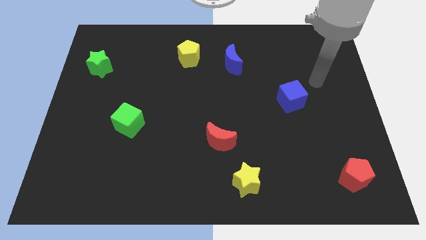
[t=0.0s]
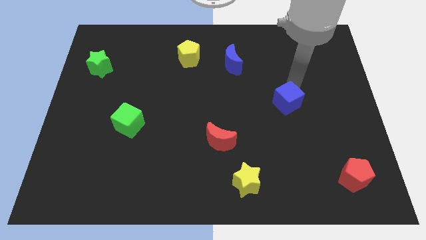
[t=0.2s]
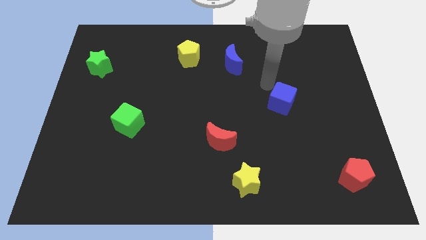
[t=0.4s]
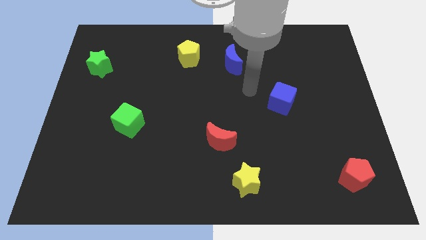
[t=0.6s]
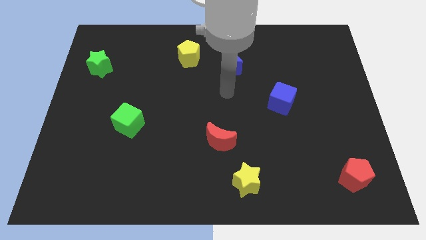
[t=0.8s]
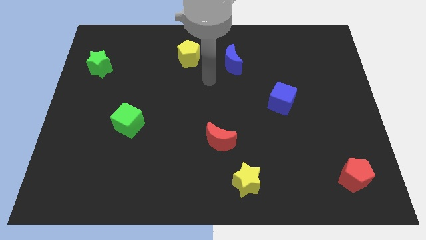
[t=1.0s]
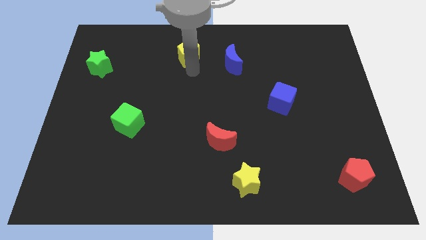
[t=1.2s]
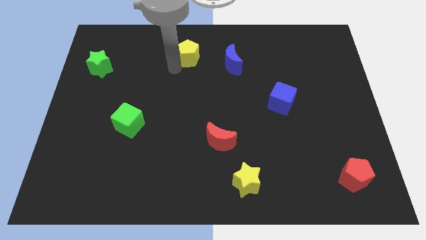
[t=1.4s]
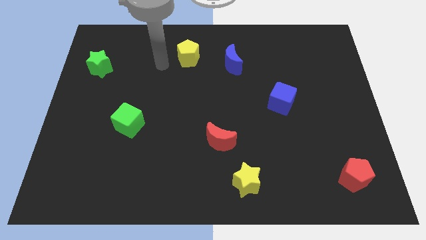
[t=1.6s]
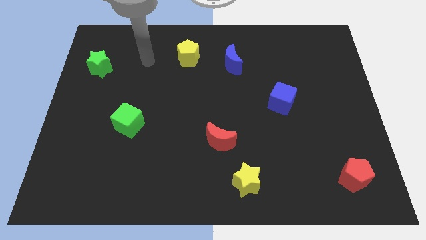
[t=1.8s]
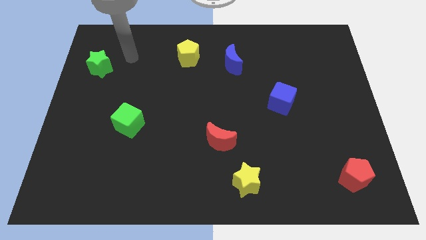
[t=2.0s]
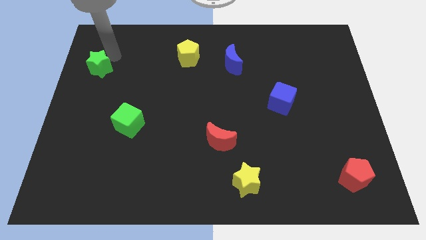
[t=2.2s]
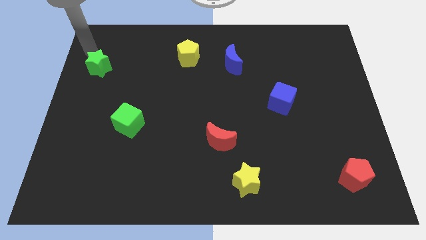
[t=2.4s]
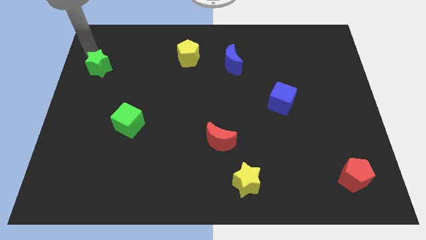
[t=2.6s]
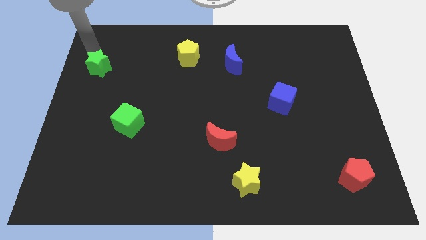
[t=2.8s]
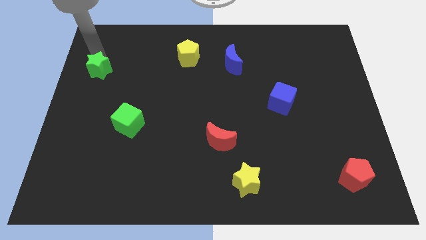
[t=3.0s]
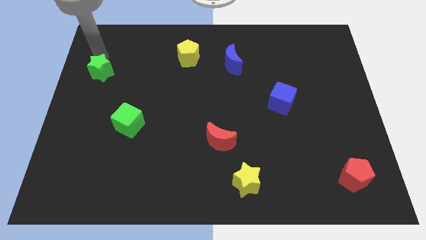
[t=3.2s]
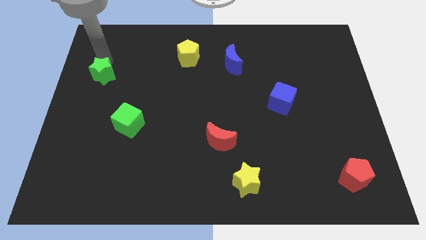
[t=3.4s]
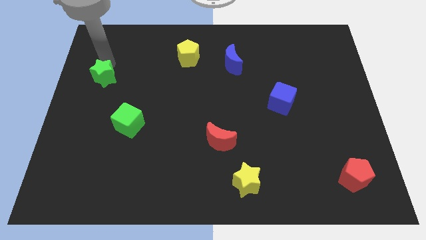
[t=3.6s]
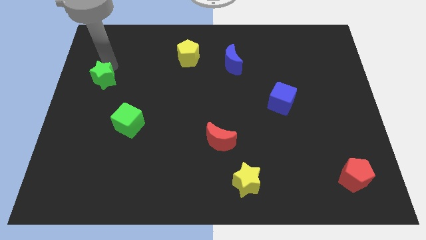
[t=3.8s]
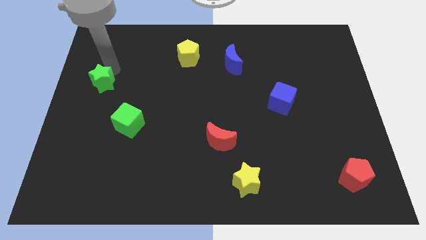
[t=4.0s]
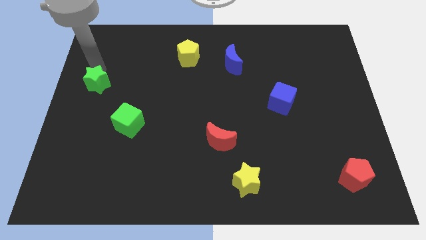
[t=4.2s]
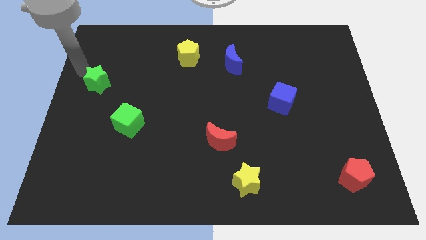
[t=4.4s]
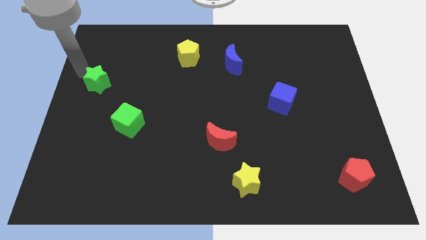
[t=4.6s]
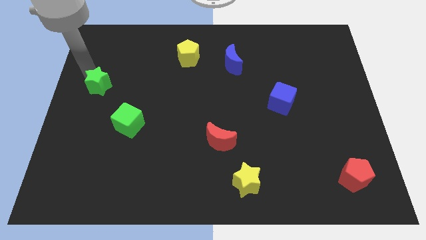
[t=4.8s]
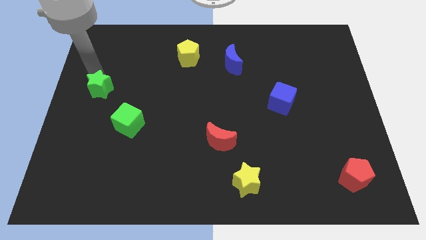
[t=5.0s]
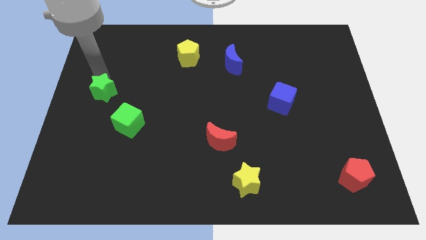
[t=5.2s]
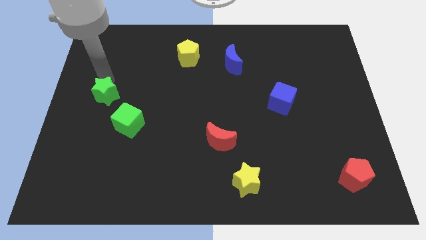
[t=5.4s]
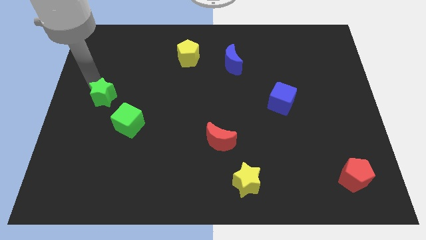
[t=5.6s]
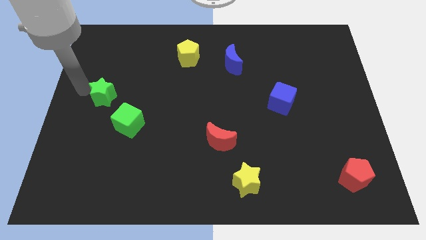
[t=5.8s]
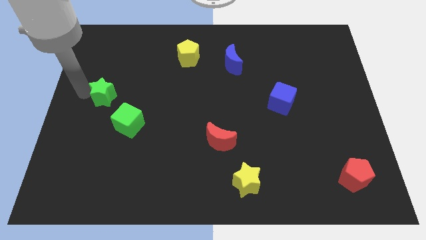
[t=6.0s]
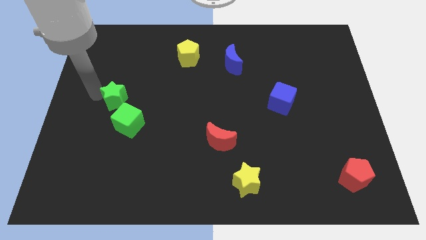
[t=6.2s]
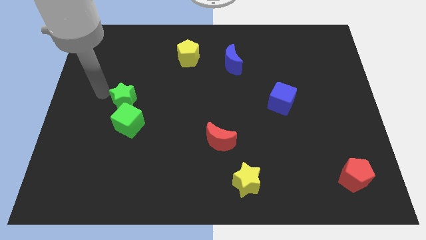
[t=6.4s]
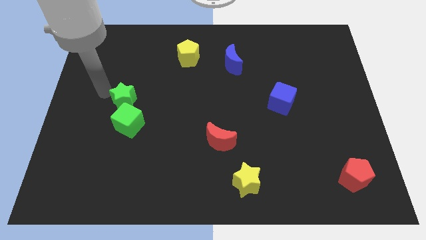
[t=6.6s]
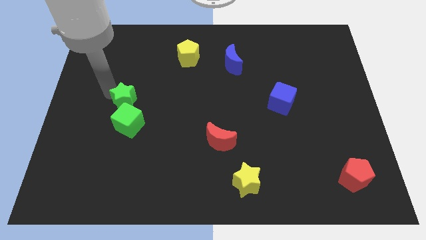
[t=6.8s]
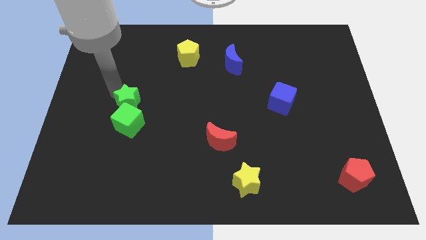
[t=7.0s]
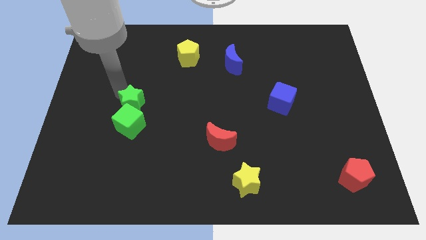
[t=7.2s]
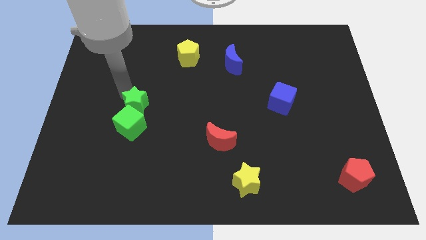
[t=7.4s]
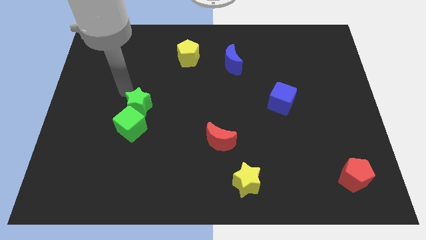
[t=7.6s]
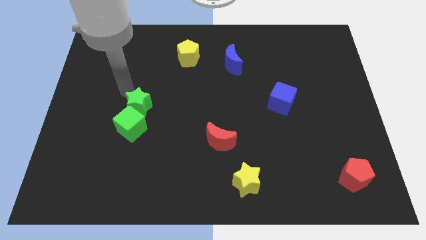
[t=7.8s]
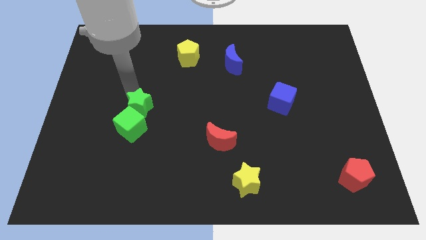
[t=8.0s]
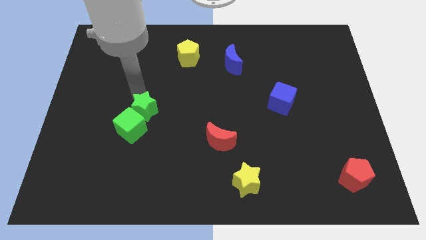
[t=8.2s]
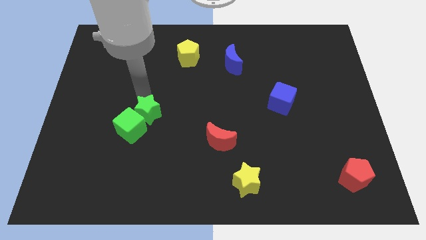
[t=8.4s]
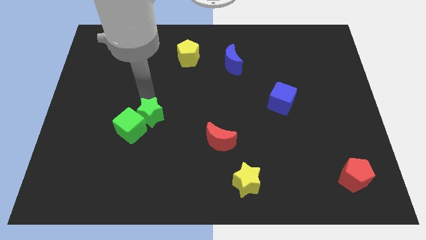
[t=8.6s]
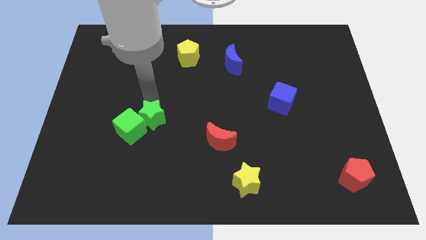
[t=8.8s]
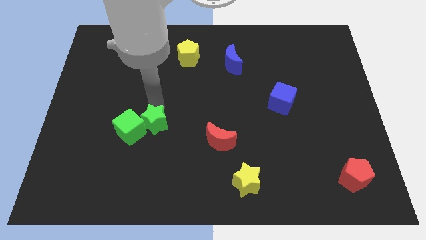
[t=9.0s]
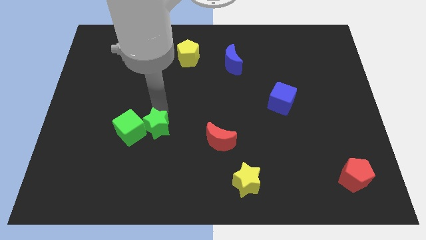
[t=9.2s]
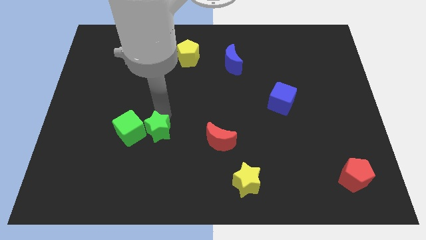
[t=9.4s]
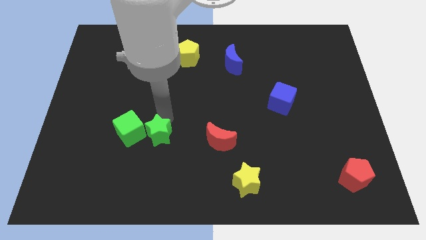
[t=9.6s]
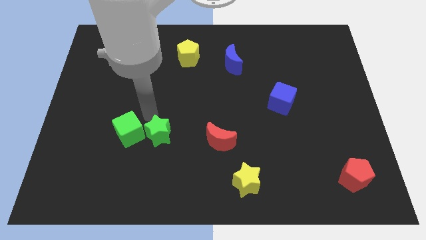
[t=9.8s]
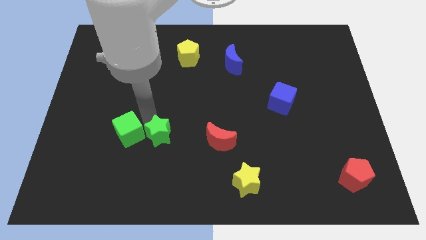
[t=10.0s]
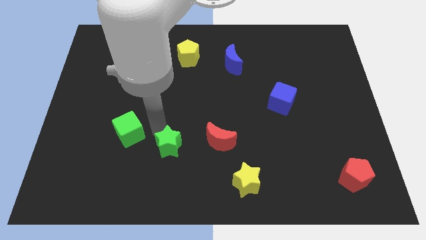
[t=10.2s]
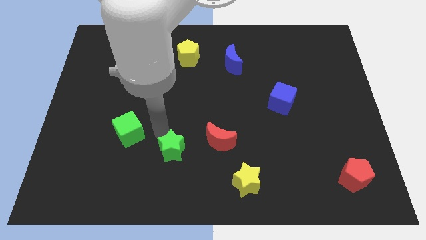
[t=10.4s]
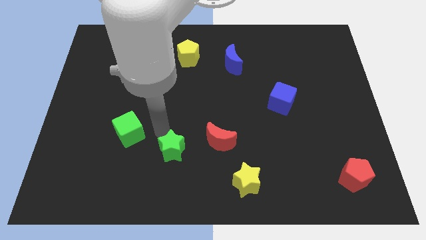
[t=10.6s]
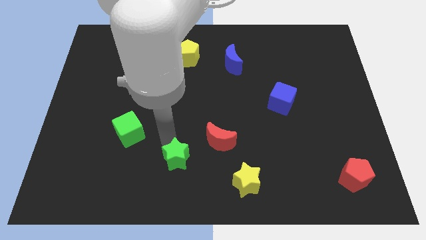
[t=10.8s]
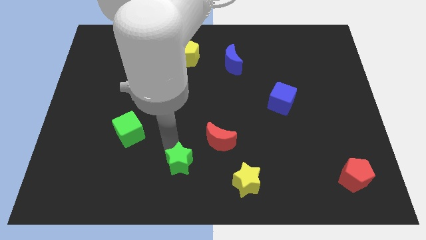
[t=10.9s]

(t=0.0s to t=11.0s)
move the green star to the bottom

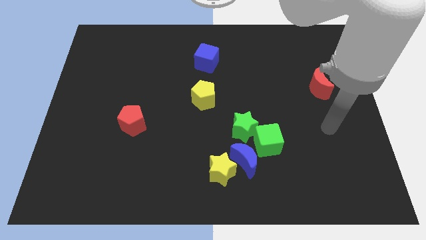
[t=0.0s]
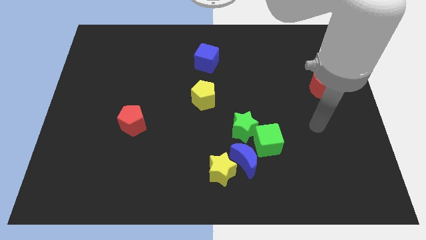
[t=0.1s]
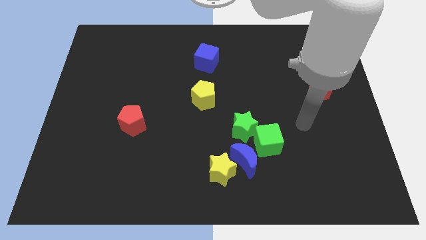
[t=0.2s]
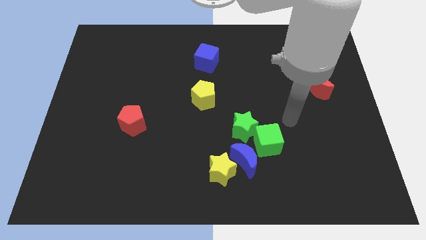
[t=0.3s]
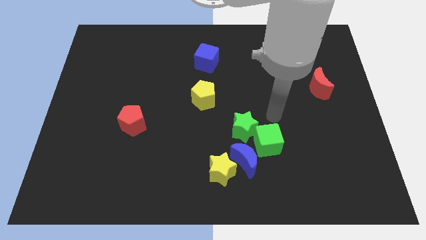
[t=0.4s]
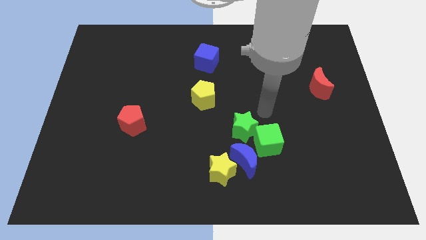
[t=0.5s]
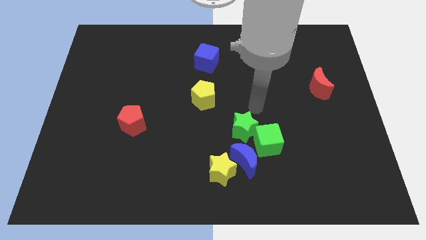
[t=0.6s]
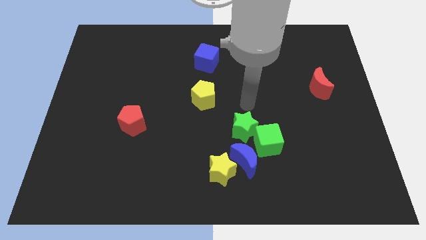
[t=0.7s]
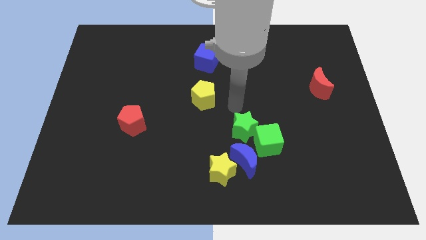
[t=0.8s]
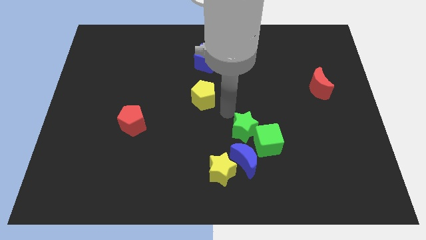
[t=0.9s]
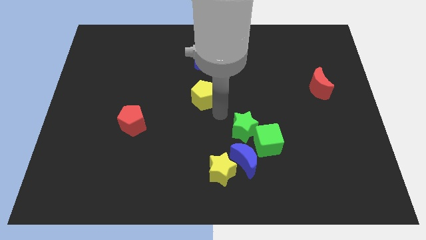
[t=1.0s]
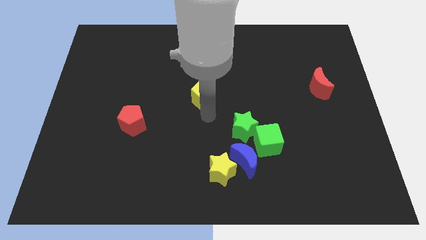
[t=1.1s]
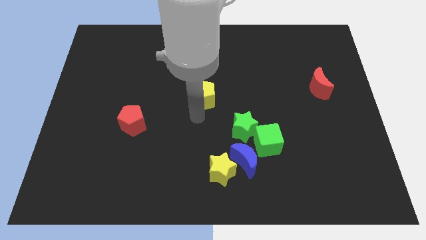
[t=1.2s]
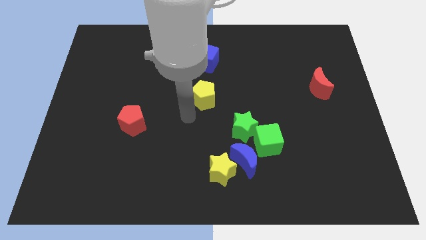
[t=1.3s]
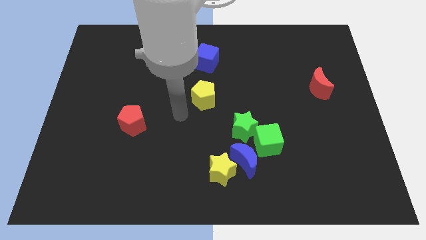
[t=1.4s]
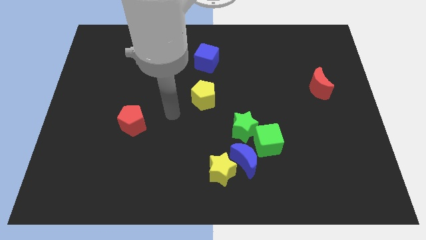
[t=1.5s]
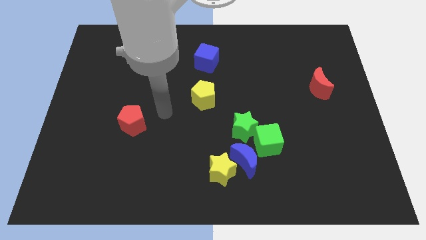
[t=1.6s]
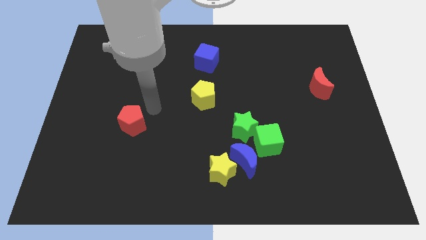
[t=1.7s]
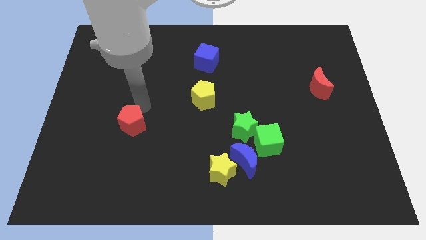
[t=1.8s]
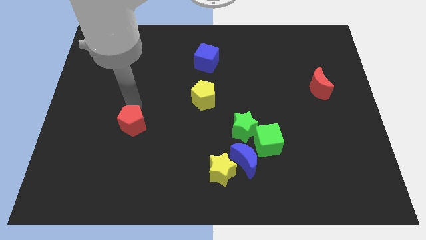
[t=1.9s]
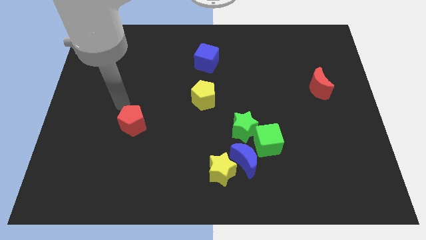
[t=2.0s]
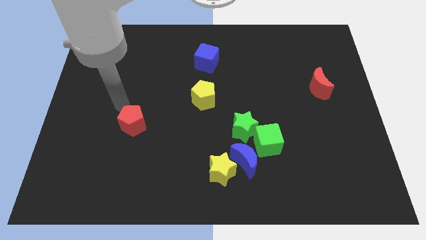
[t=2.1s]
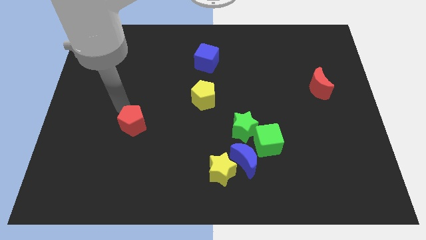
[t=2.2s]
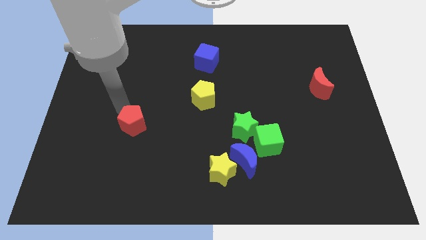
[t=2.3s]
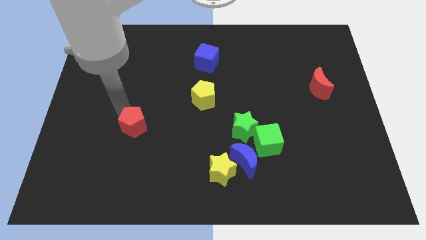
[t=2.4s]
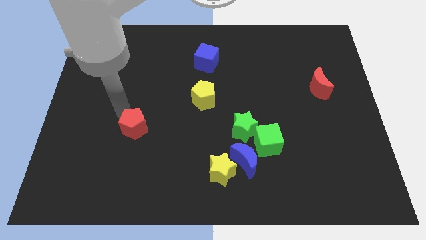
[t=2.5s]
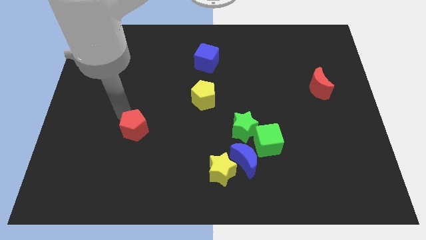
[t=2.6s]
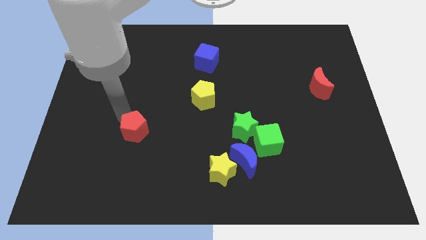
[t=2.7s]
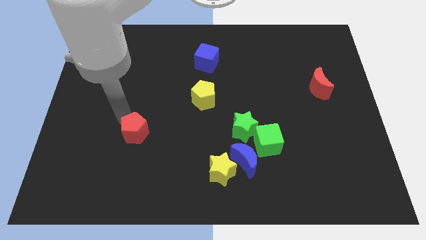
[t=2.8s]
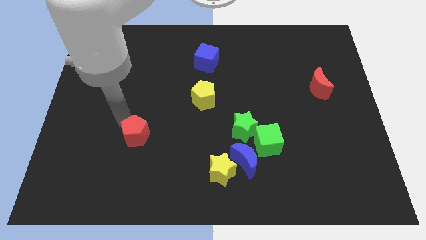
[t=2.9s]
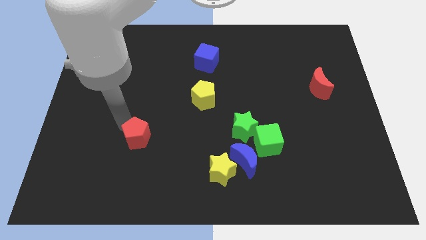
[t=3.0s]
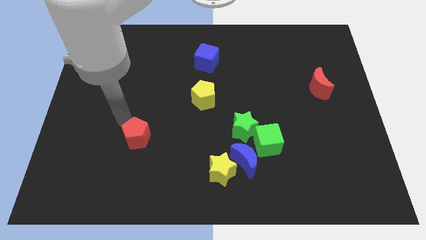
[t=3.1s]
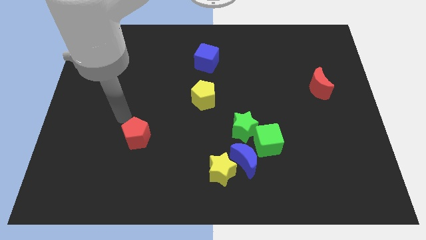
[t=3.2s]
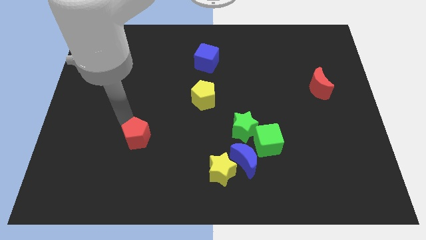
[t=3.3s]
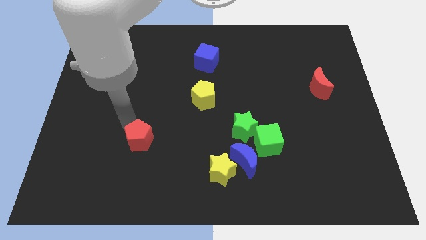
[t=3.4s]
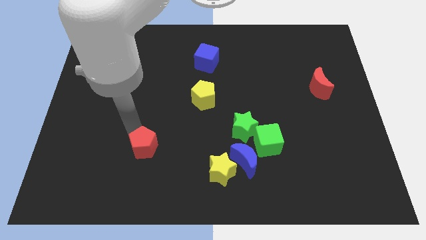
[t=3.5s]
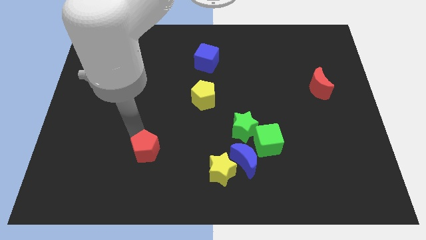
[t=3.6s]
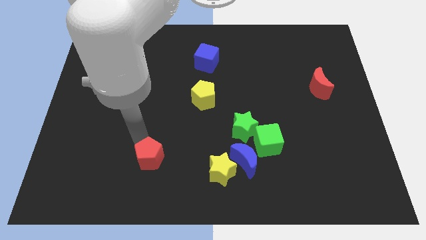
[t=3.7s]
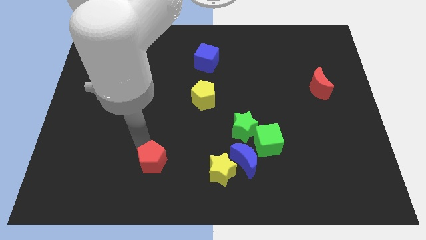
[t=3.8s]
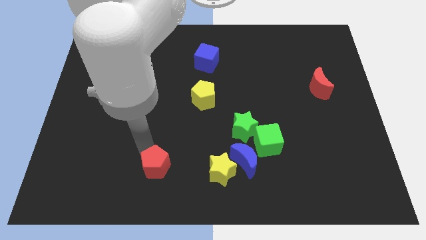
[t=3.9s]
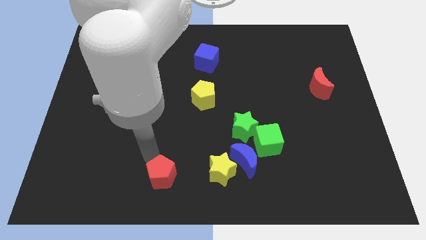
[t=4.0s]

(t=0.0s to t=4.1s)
push the red pentagon to the bottom
